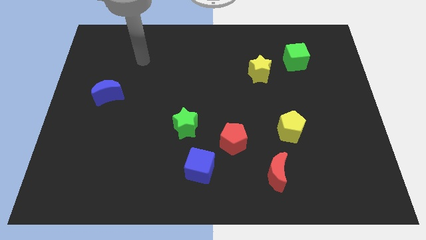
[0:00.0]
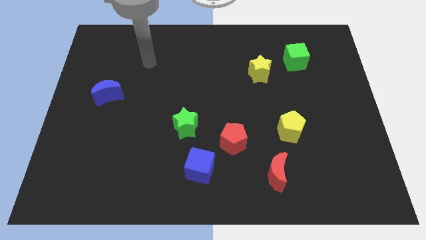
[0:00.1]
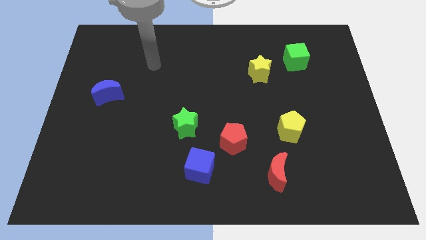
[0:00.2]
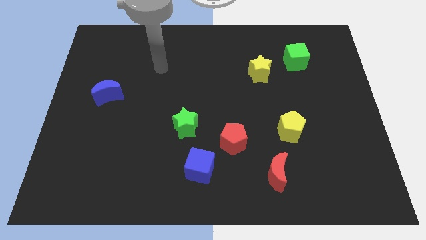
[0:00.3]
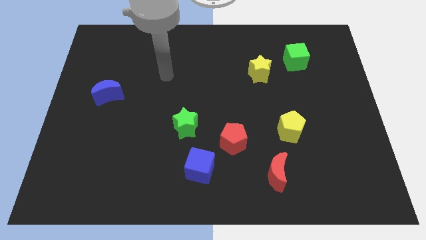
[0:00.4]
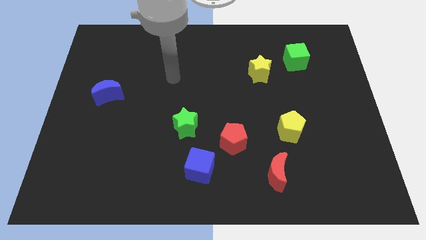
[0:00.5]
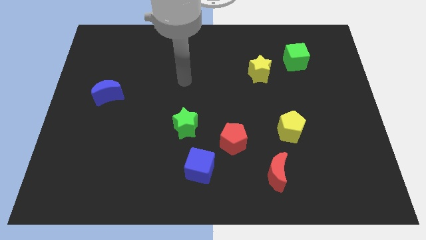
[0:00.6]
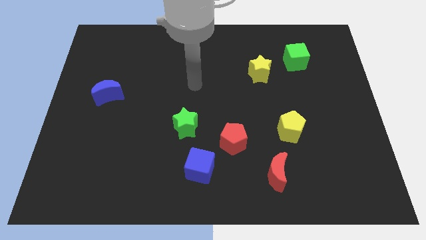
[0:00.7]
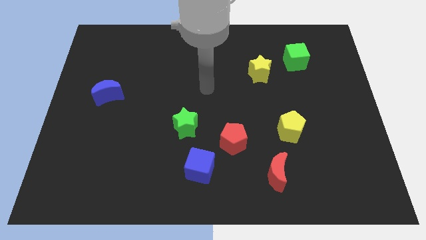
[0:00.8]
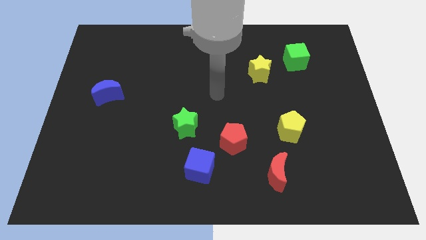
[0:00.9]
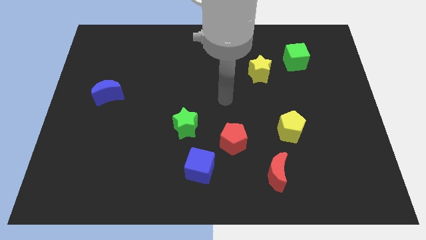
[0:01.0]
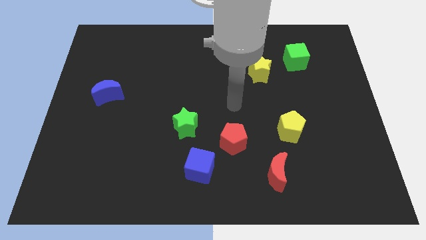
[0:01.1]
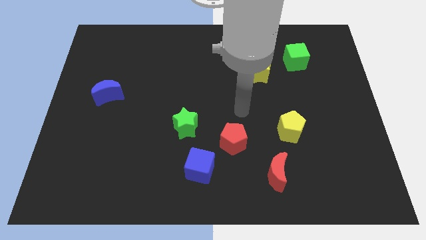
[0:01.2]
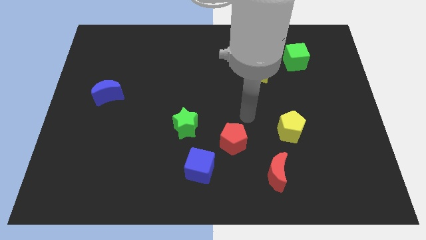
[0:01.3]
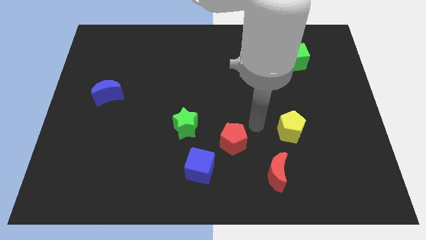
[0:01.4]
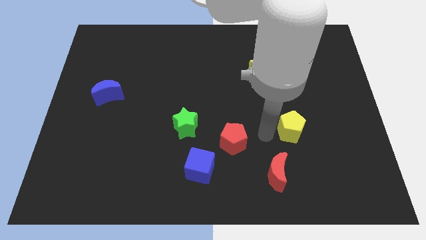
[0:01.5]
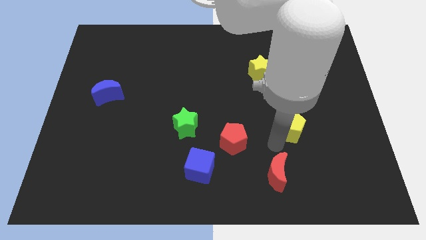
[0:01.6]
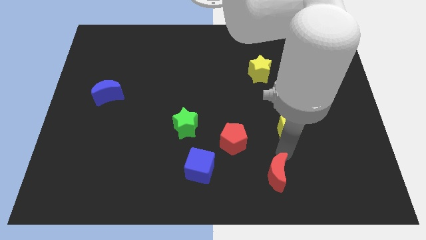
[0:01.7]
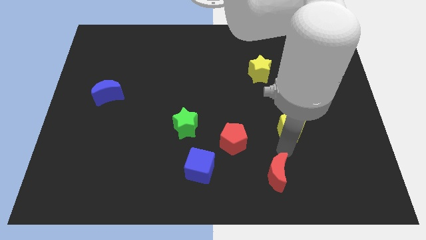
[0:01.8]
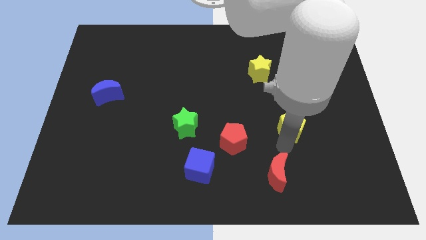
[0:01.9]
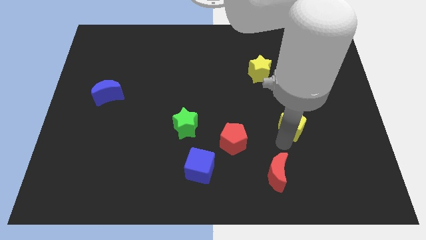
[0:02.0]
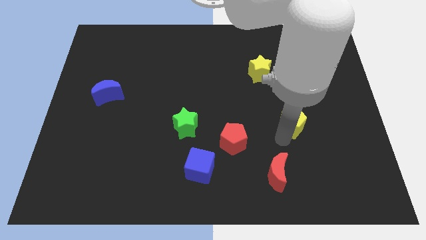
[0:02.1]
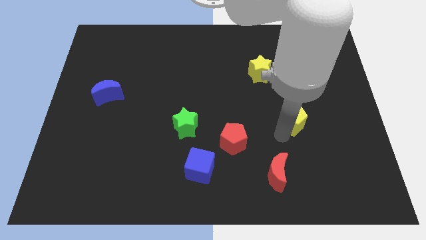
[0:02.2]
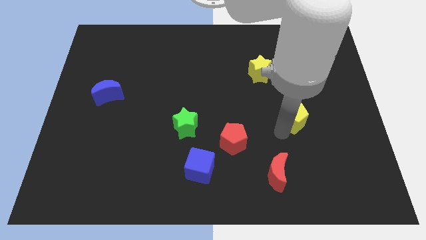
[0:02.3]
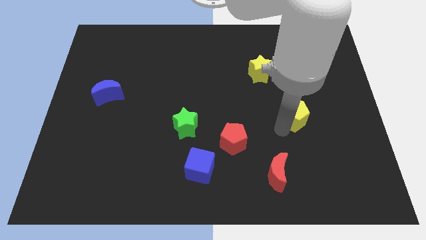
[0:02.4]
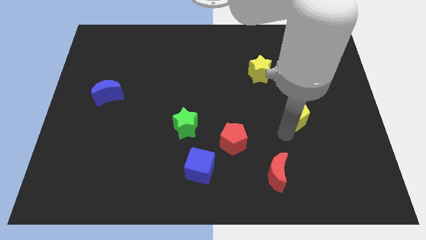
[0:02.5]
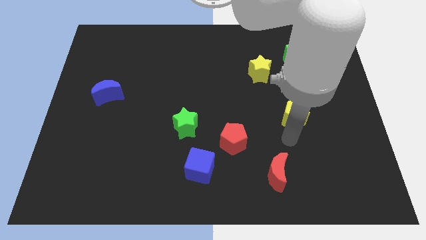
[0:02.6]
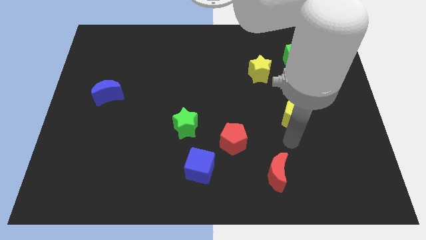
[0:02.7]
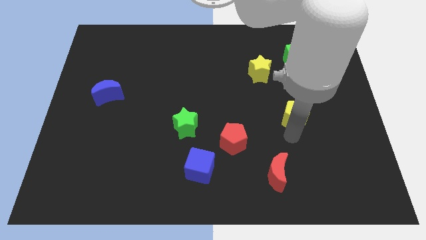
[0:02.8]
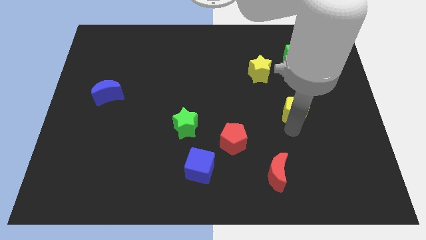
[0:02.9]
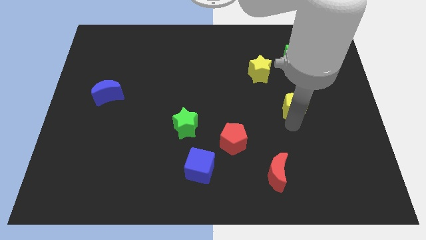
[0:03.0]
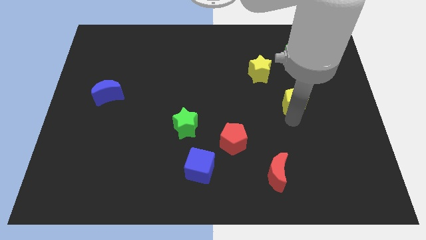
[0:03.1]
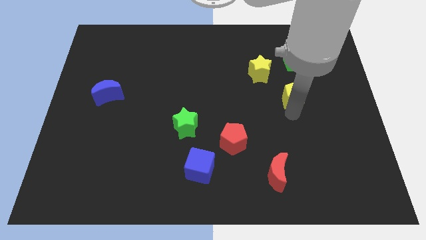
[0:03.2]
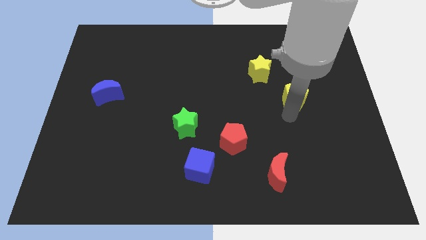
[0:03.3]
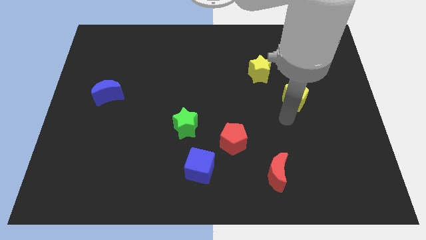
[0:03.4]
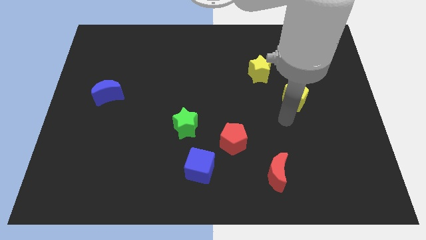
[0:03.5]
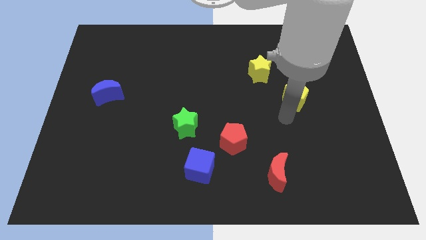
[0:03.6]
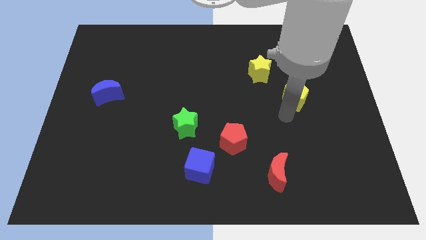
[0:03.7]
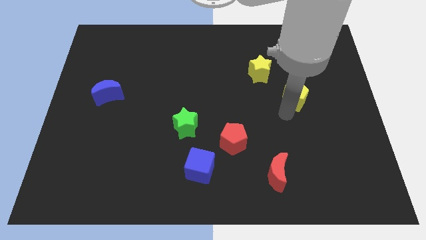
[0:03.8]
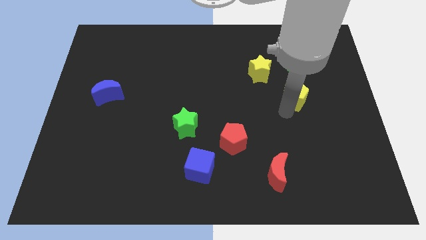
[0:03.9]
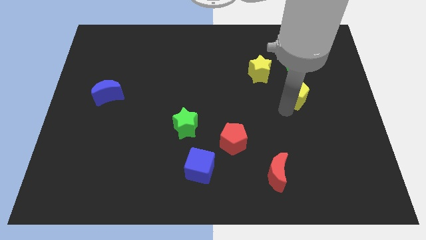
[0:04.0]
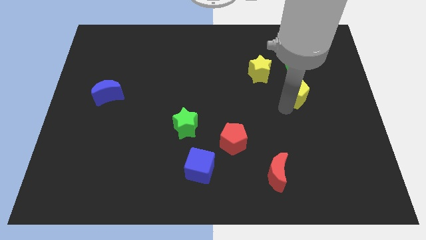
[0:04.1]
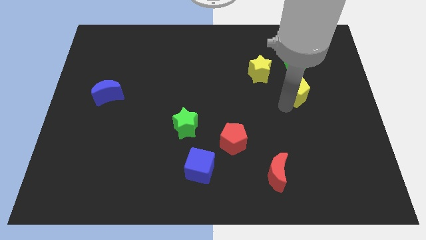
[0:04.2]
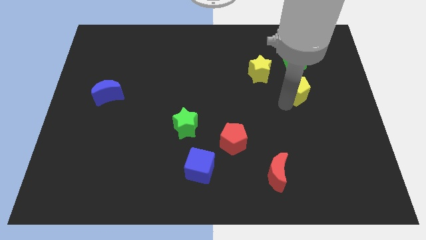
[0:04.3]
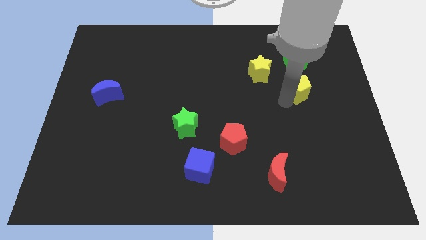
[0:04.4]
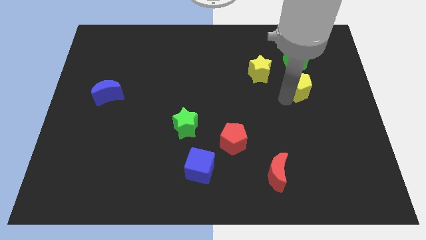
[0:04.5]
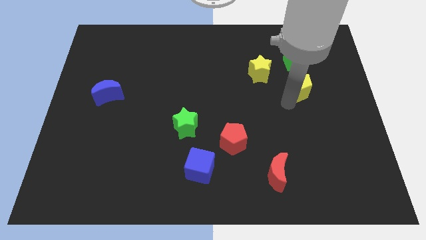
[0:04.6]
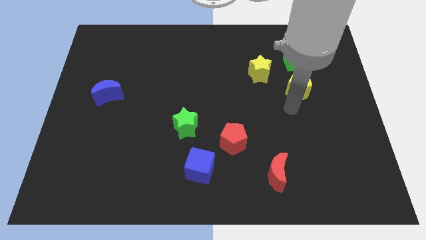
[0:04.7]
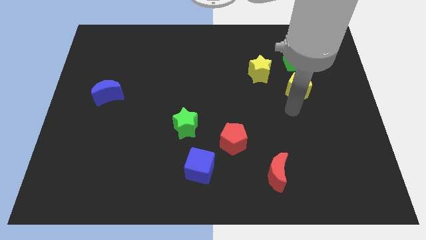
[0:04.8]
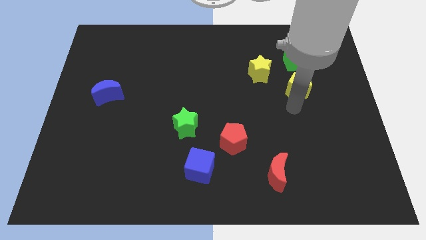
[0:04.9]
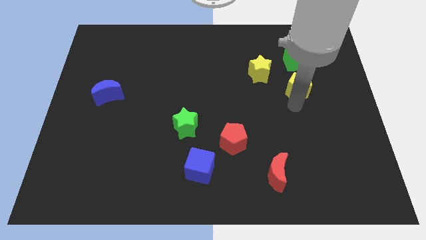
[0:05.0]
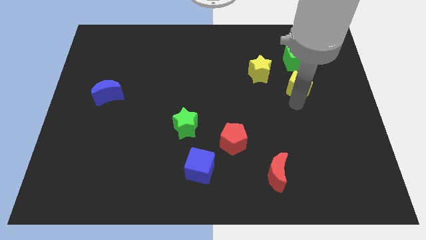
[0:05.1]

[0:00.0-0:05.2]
slide the yellow pentagon to the right of the yellow star

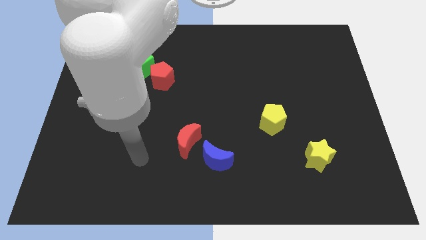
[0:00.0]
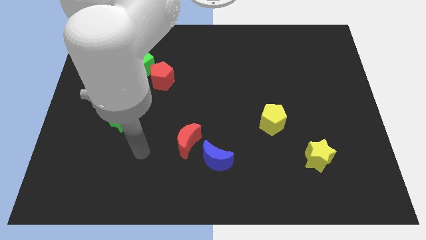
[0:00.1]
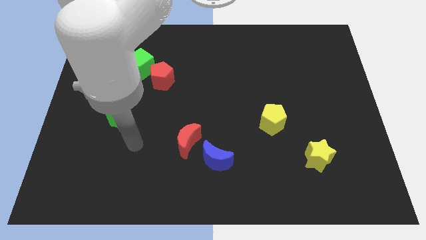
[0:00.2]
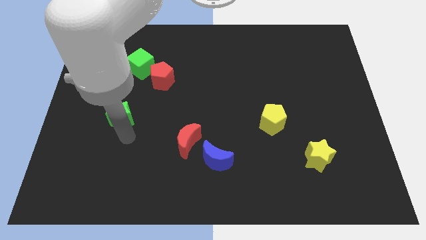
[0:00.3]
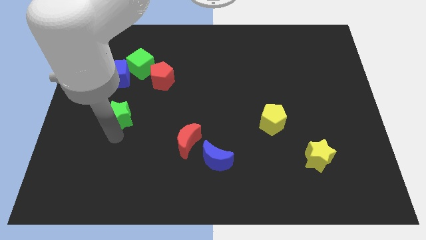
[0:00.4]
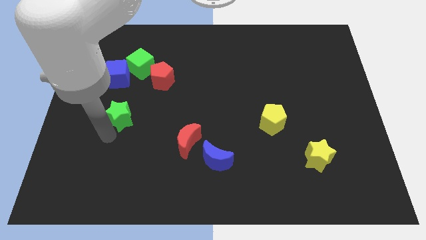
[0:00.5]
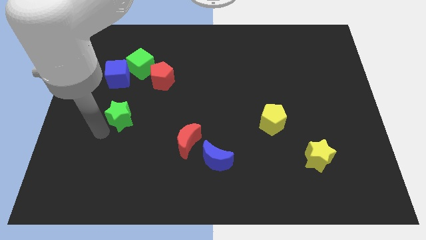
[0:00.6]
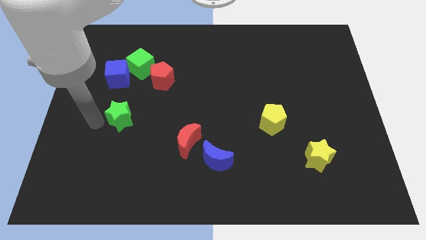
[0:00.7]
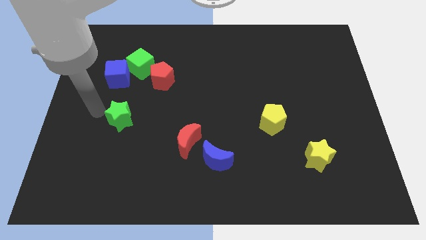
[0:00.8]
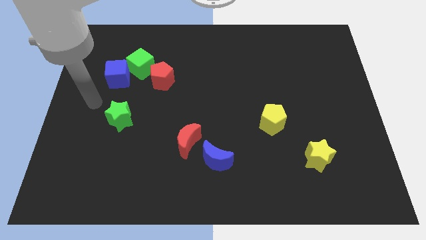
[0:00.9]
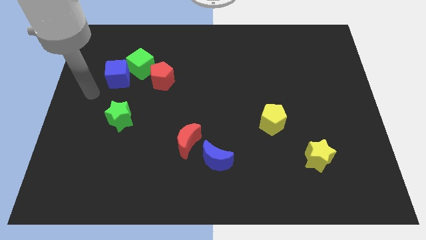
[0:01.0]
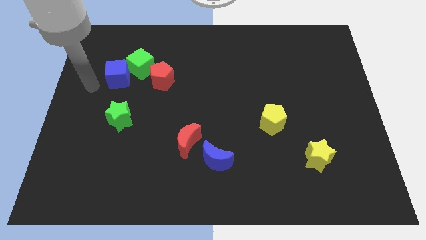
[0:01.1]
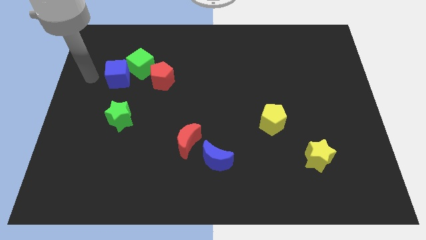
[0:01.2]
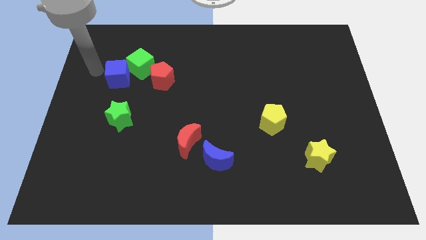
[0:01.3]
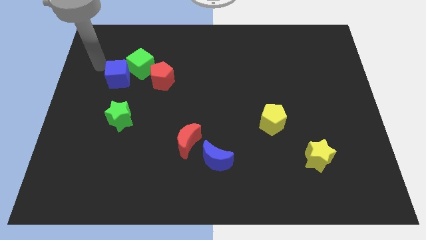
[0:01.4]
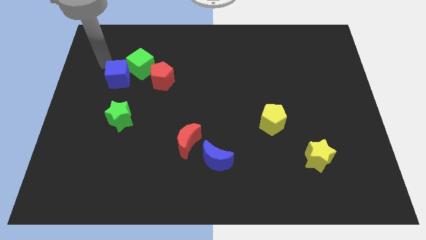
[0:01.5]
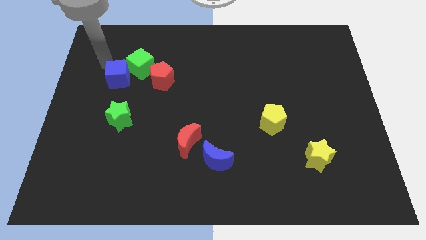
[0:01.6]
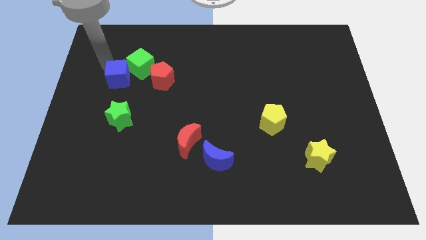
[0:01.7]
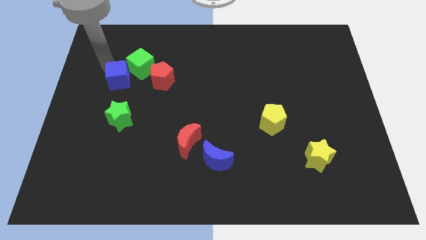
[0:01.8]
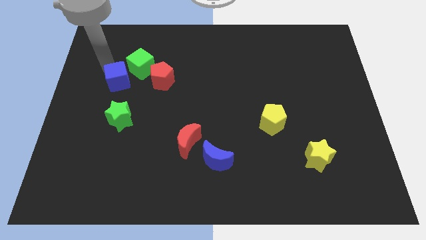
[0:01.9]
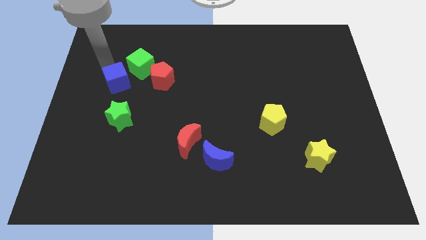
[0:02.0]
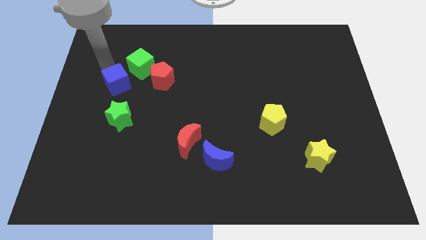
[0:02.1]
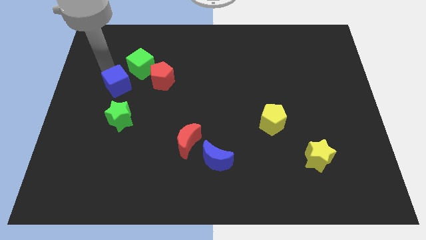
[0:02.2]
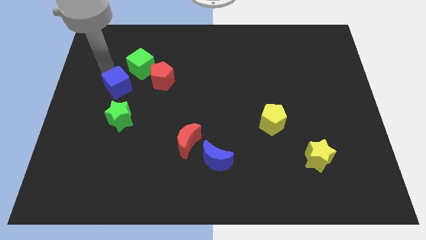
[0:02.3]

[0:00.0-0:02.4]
slide the blue cube to the bottom of the green cube

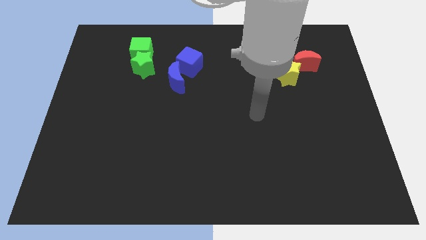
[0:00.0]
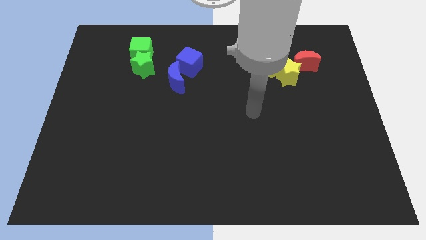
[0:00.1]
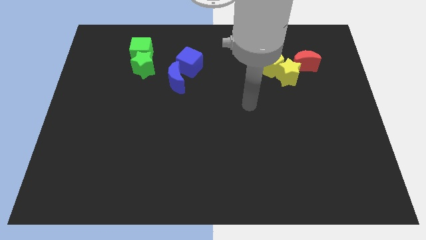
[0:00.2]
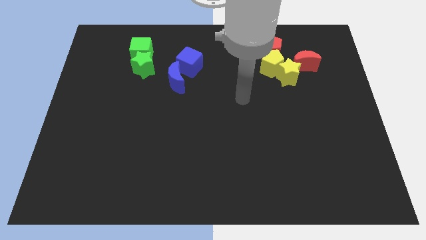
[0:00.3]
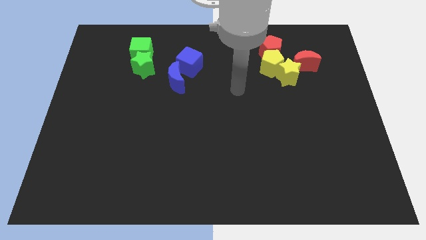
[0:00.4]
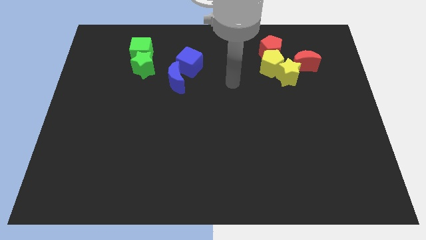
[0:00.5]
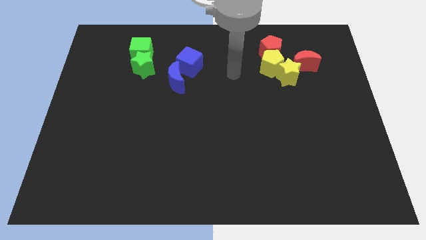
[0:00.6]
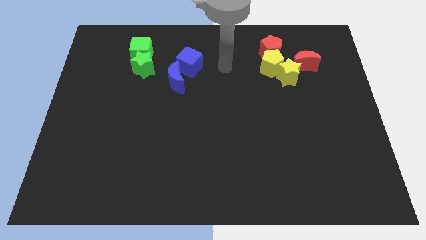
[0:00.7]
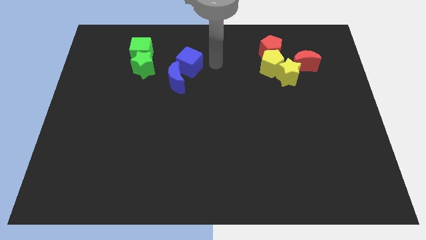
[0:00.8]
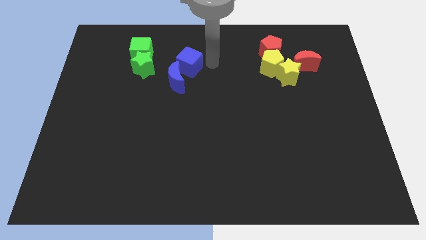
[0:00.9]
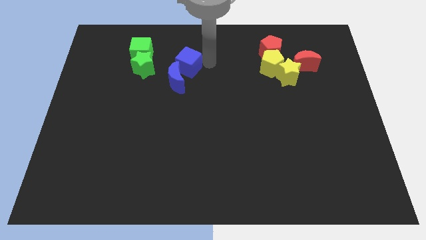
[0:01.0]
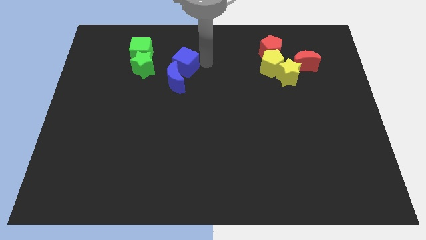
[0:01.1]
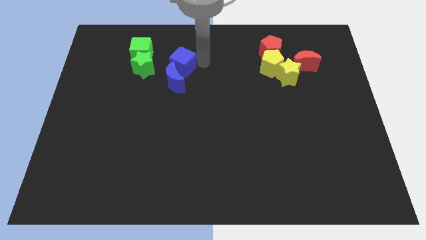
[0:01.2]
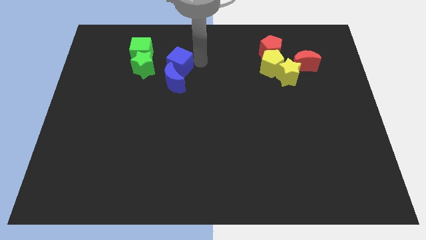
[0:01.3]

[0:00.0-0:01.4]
move the blue cube diagonally down and to the right of the green cube
